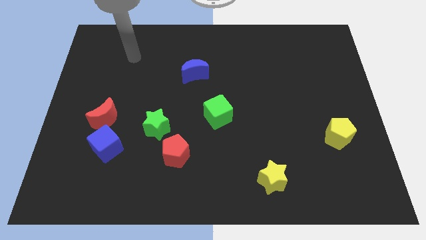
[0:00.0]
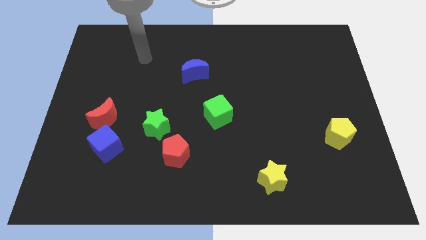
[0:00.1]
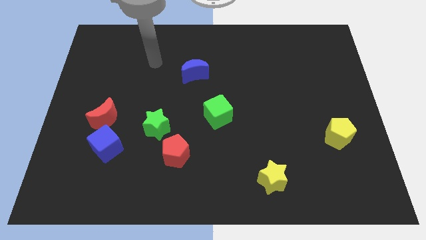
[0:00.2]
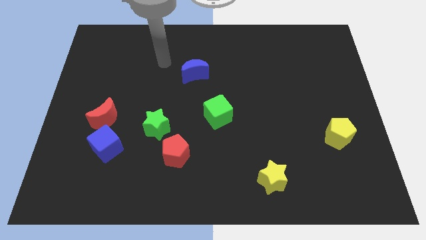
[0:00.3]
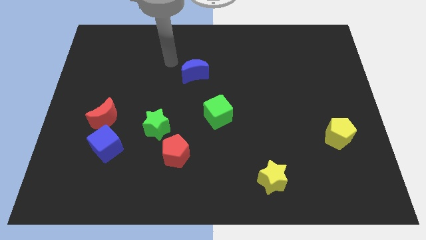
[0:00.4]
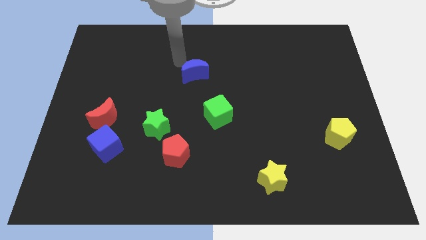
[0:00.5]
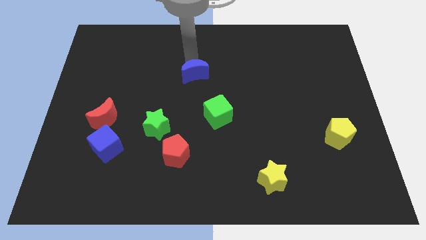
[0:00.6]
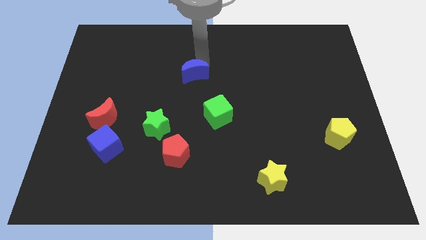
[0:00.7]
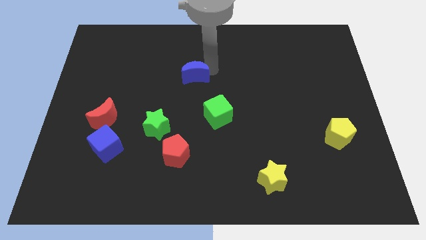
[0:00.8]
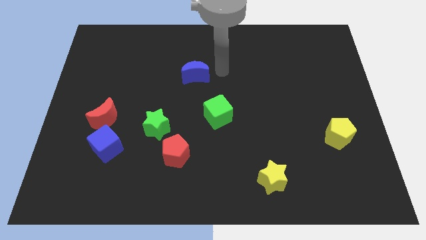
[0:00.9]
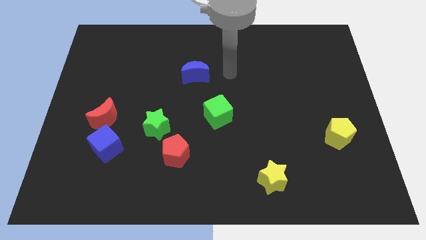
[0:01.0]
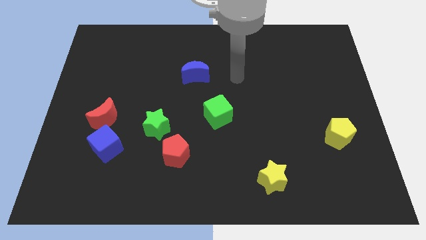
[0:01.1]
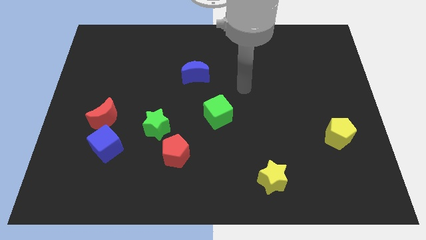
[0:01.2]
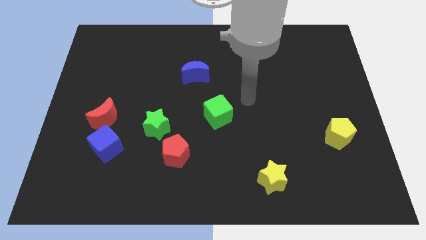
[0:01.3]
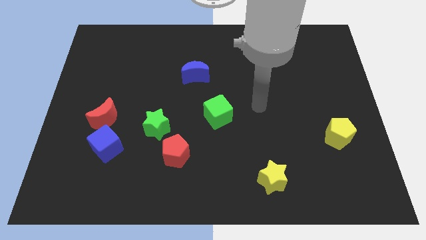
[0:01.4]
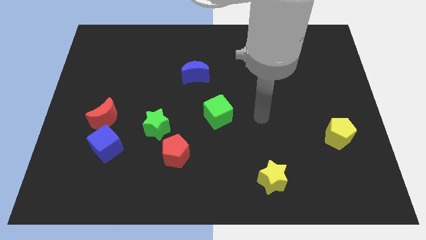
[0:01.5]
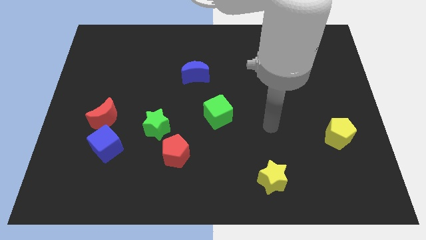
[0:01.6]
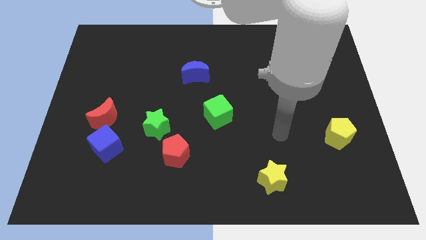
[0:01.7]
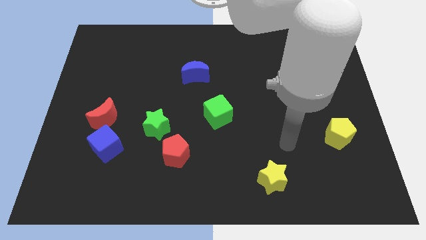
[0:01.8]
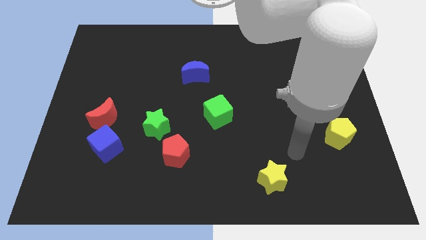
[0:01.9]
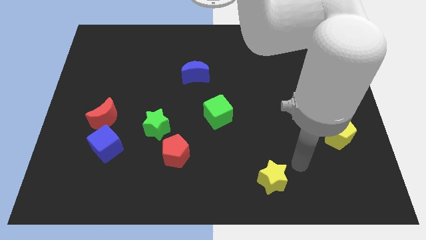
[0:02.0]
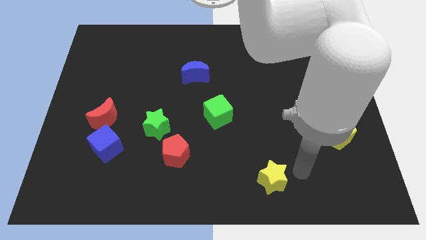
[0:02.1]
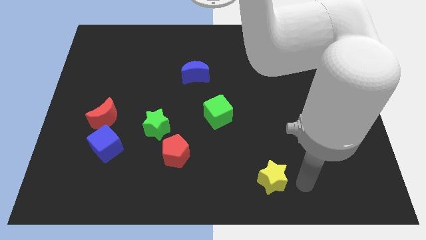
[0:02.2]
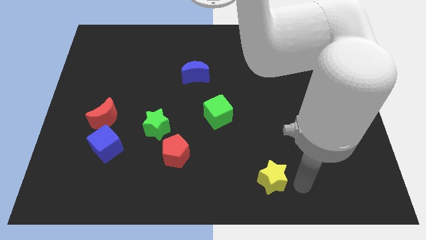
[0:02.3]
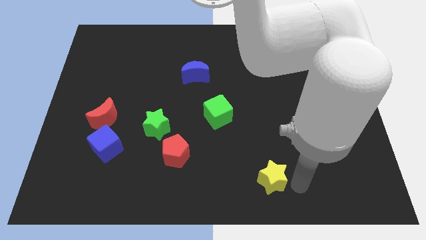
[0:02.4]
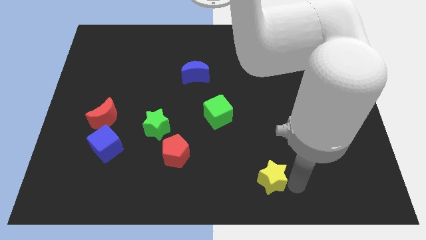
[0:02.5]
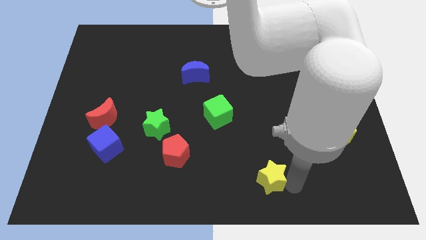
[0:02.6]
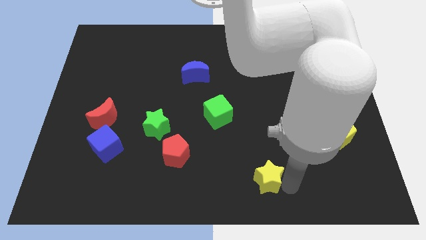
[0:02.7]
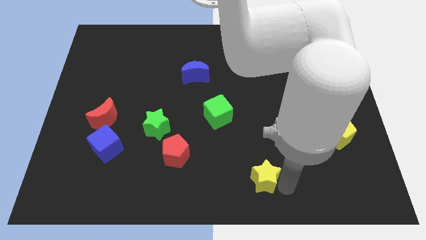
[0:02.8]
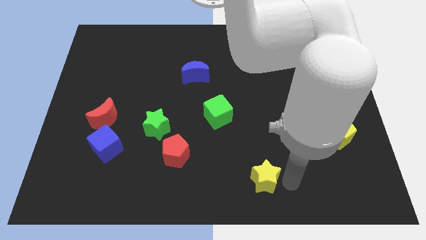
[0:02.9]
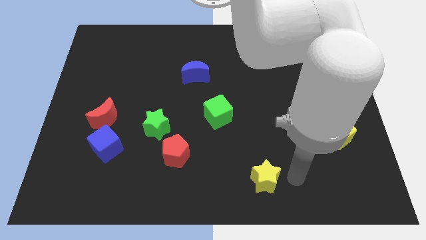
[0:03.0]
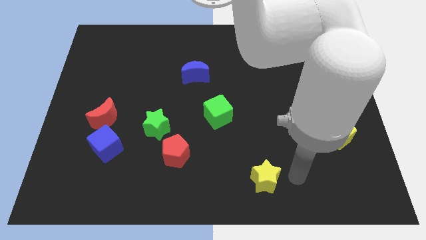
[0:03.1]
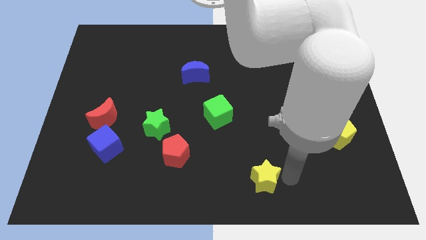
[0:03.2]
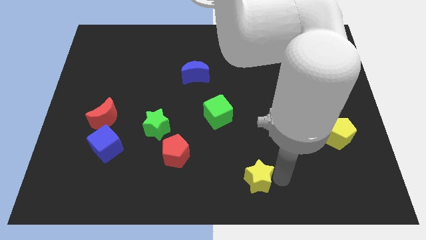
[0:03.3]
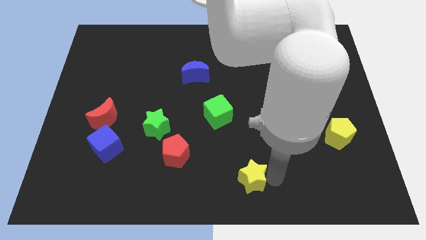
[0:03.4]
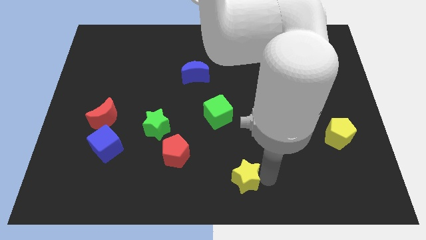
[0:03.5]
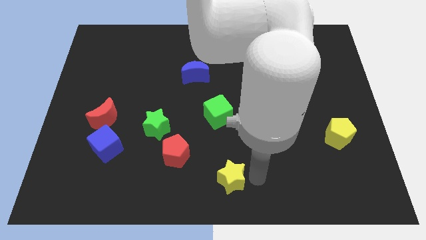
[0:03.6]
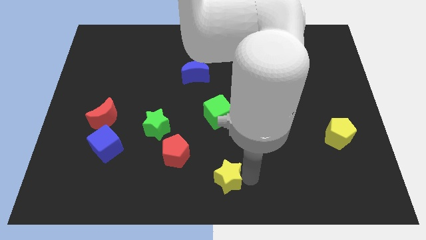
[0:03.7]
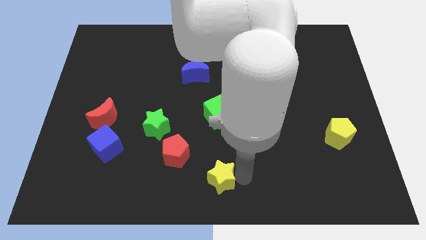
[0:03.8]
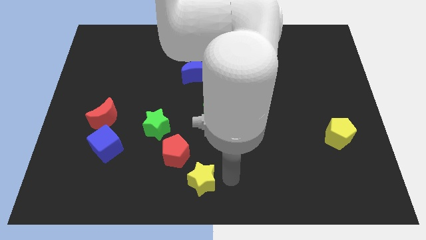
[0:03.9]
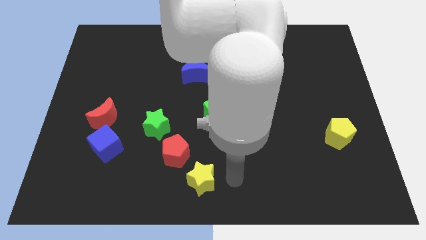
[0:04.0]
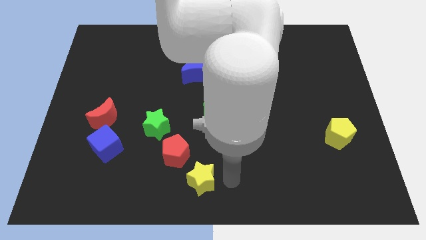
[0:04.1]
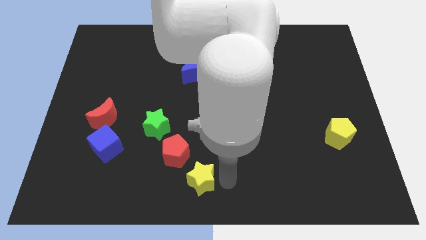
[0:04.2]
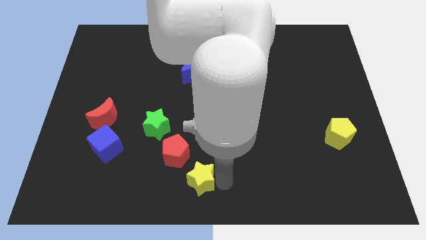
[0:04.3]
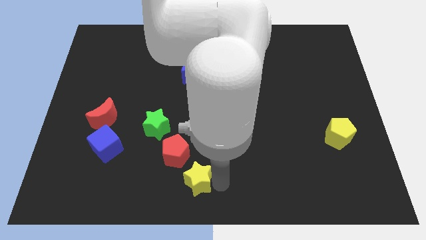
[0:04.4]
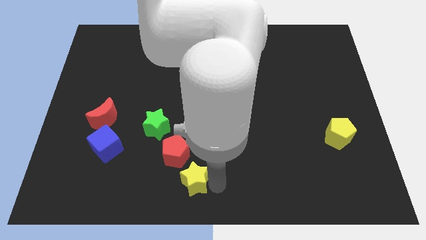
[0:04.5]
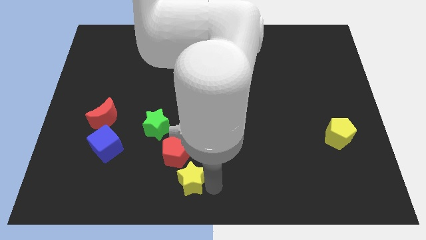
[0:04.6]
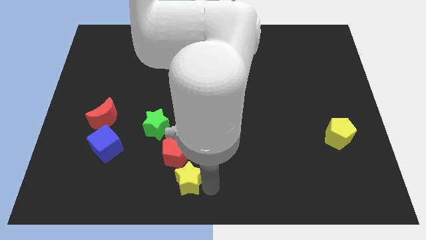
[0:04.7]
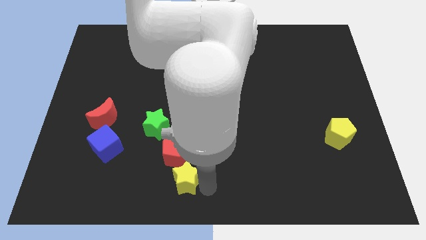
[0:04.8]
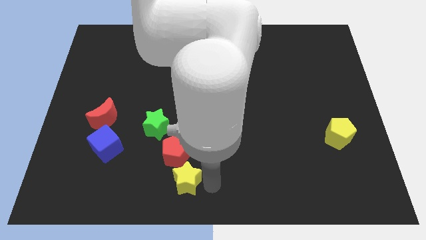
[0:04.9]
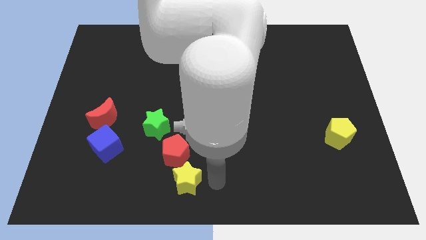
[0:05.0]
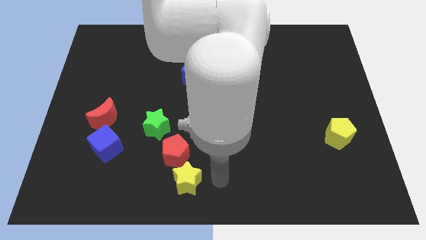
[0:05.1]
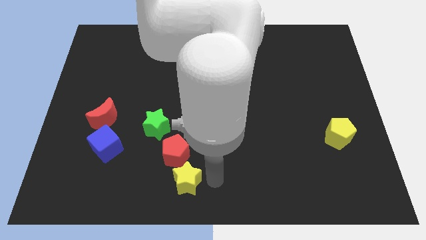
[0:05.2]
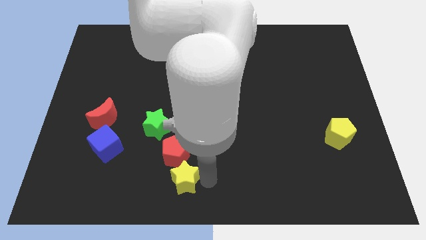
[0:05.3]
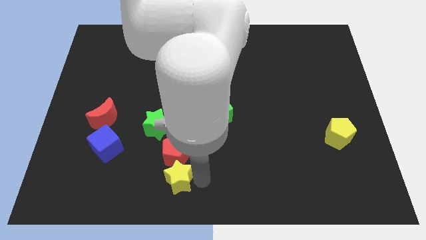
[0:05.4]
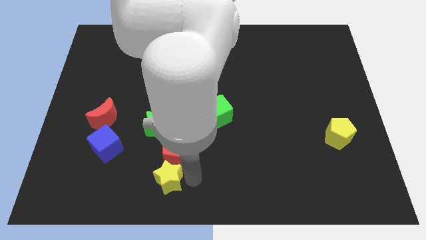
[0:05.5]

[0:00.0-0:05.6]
slide the yellow star left

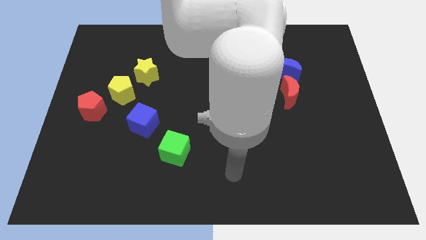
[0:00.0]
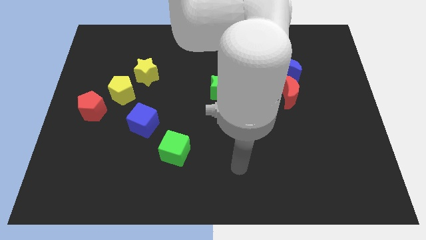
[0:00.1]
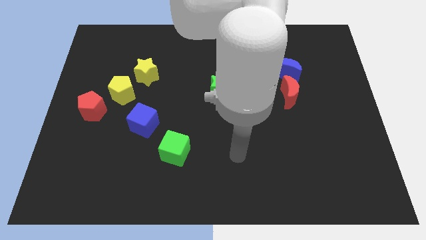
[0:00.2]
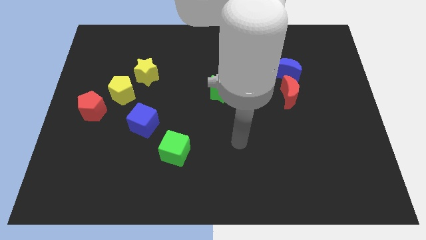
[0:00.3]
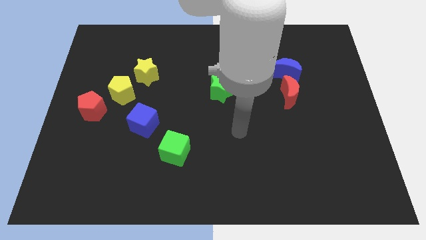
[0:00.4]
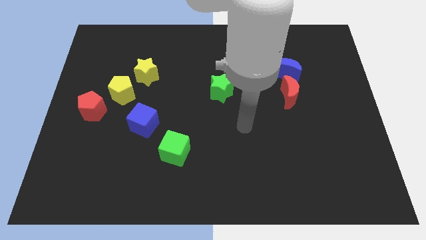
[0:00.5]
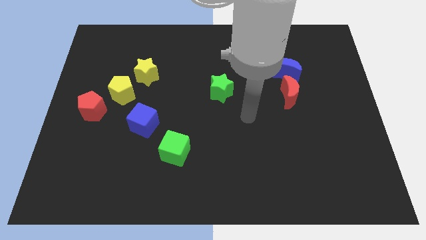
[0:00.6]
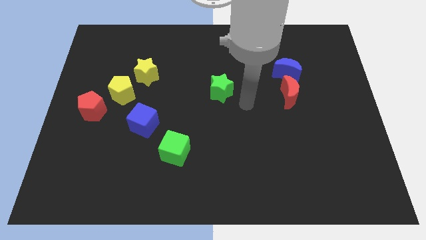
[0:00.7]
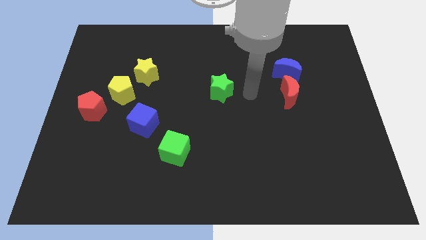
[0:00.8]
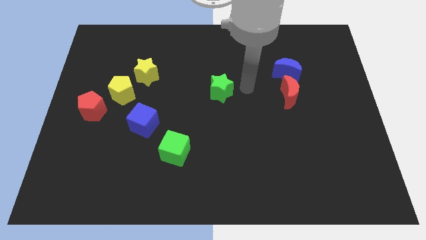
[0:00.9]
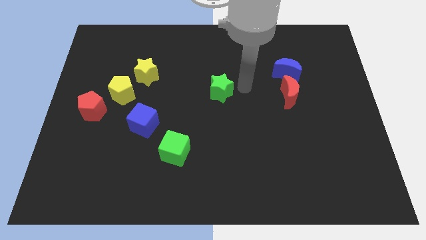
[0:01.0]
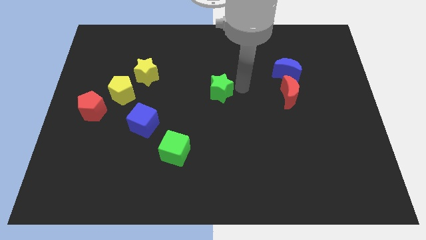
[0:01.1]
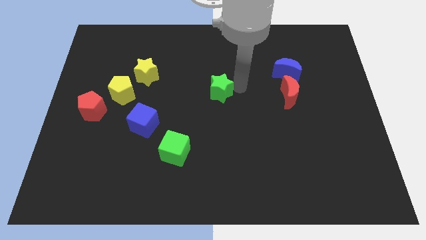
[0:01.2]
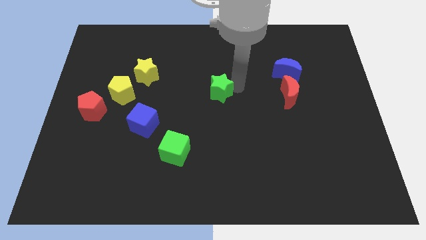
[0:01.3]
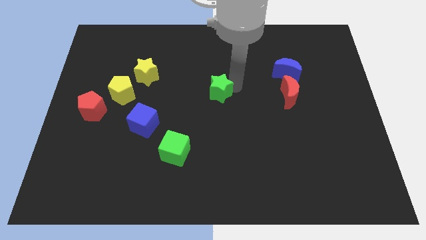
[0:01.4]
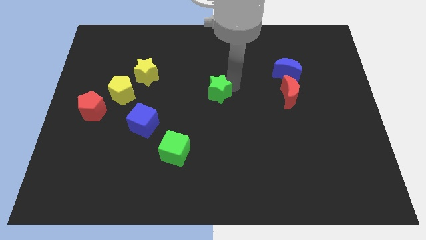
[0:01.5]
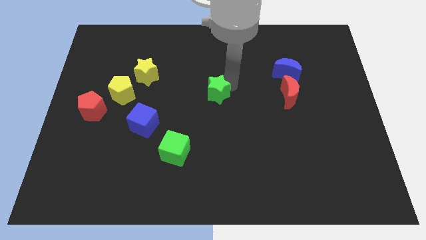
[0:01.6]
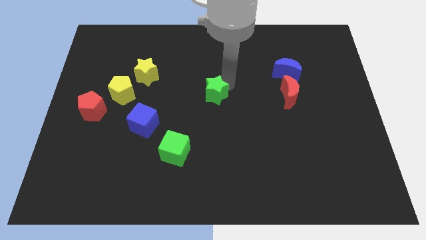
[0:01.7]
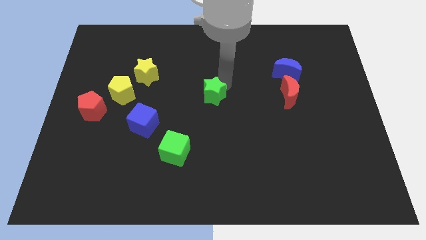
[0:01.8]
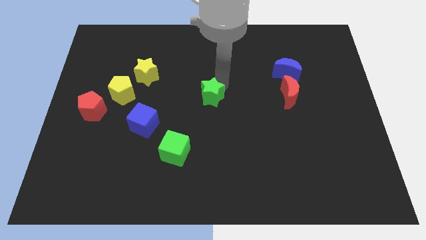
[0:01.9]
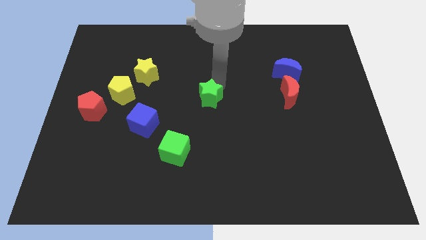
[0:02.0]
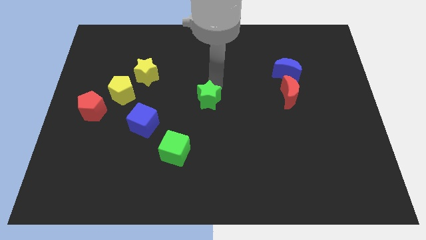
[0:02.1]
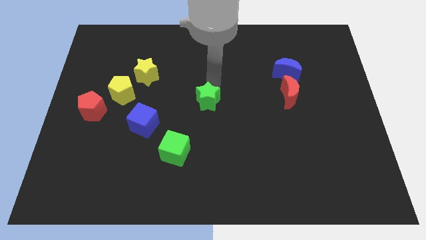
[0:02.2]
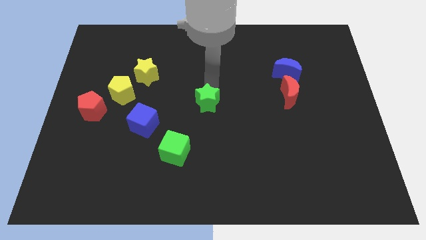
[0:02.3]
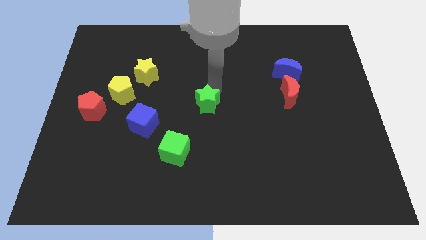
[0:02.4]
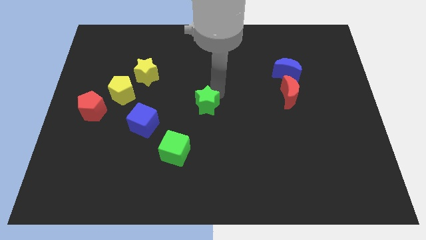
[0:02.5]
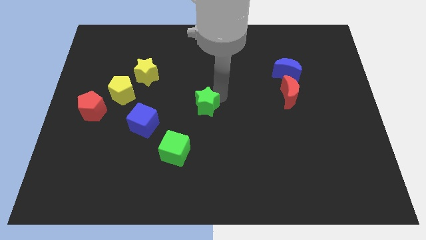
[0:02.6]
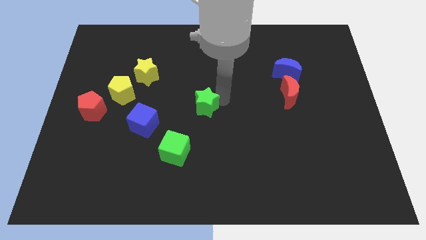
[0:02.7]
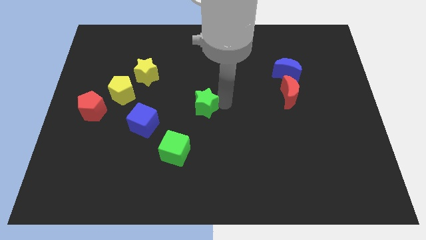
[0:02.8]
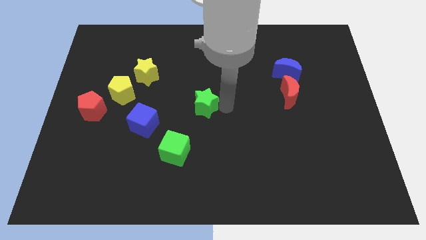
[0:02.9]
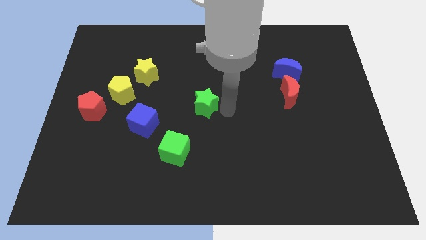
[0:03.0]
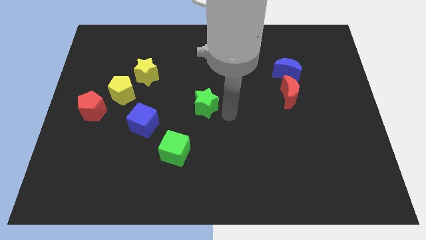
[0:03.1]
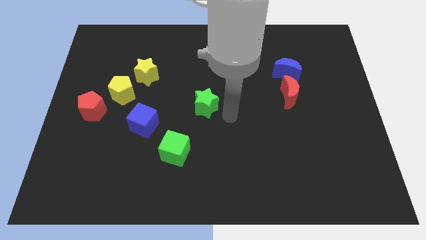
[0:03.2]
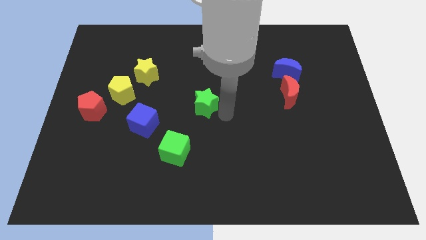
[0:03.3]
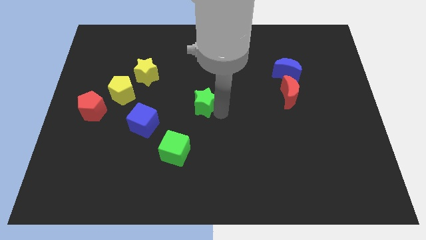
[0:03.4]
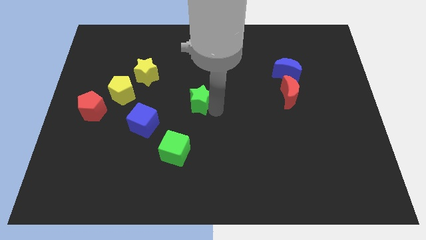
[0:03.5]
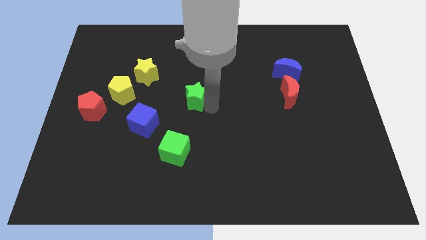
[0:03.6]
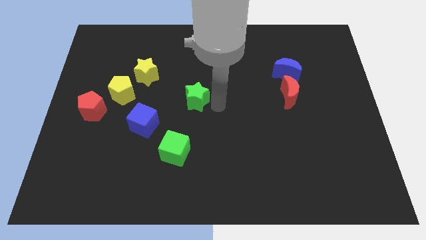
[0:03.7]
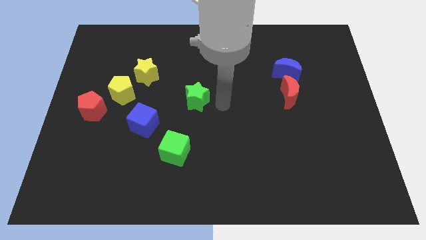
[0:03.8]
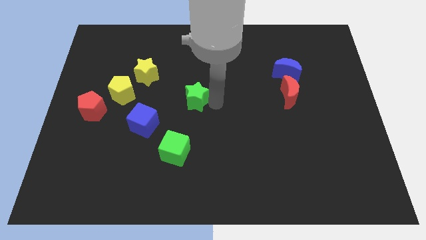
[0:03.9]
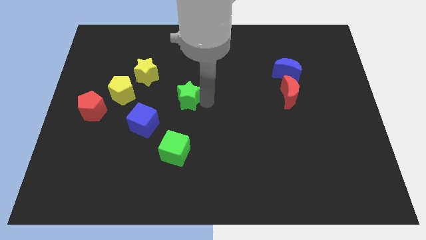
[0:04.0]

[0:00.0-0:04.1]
slightly push the green star left
